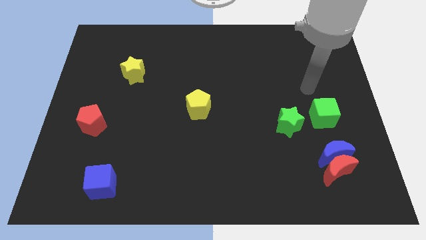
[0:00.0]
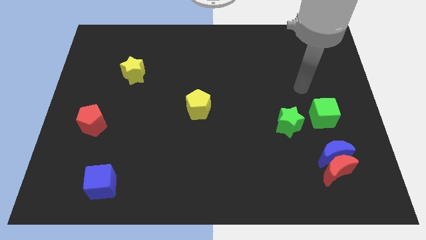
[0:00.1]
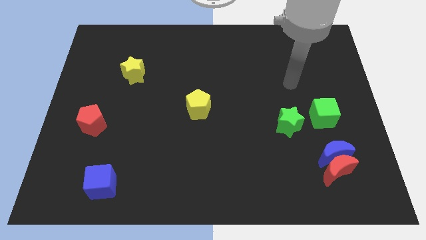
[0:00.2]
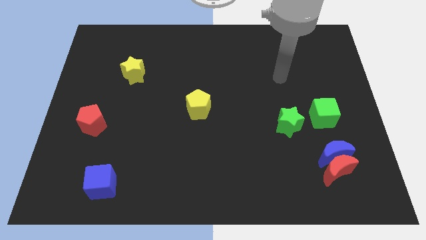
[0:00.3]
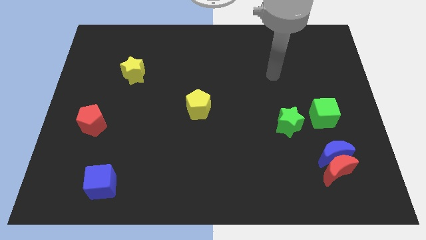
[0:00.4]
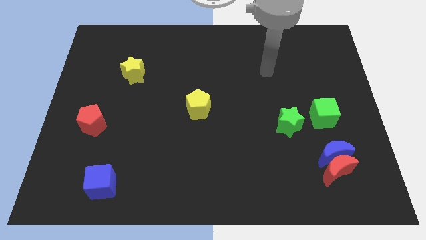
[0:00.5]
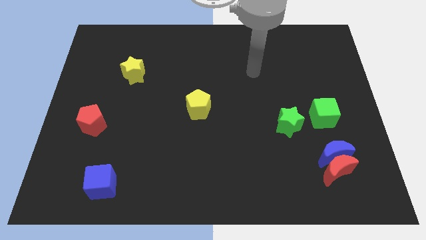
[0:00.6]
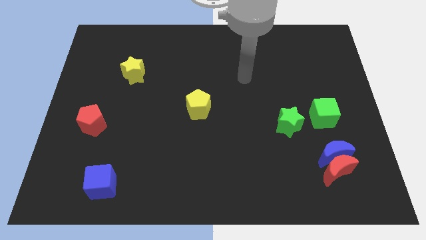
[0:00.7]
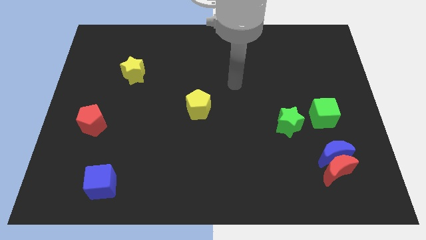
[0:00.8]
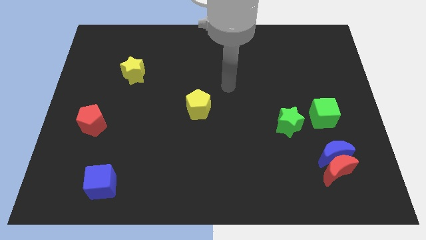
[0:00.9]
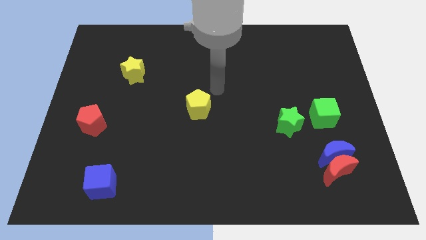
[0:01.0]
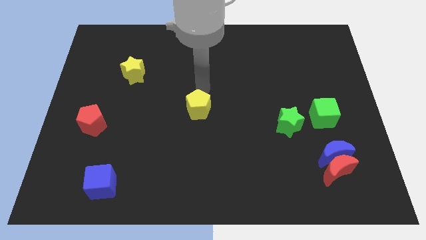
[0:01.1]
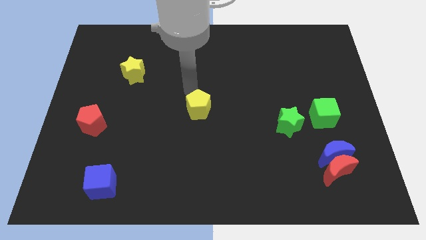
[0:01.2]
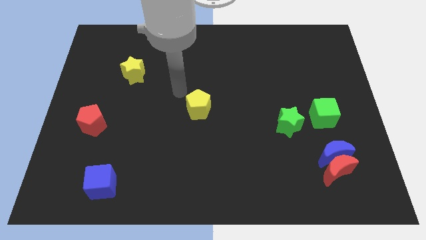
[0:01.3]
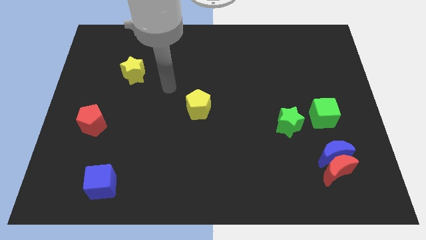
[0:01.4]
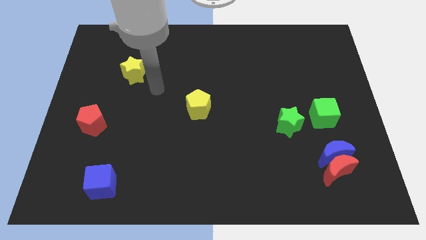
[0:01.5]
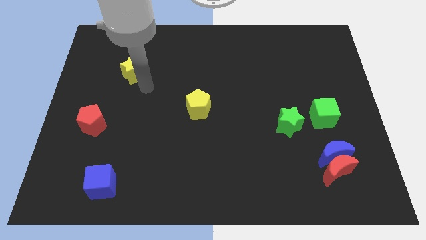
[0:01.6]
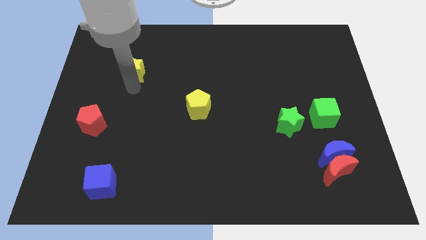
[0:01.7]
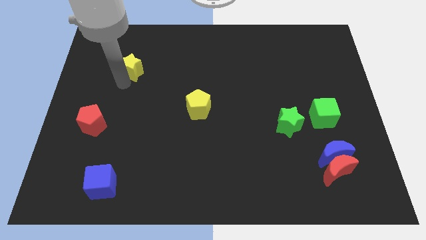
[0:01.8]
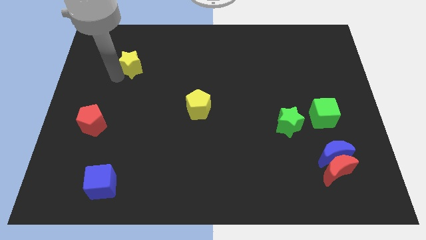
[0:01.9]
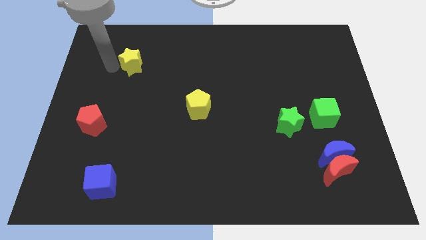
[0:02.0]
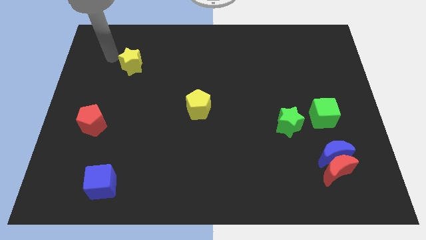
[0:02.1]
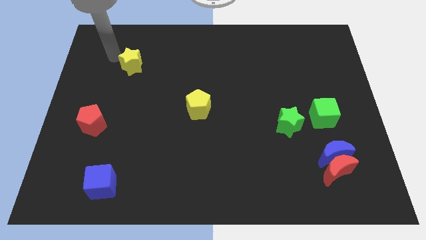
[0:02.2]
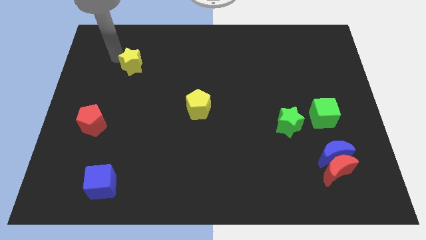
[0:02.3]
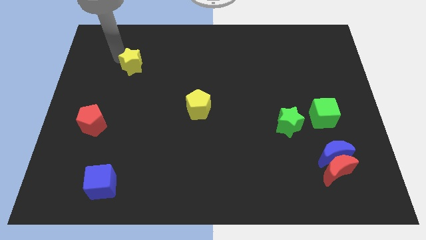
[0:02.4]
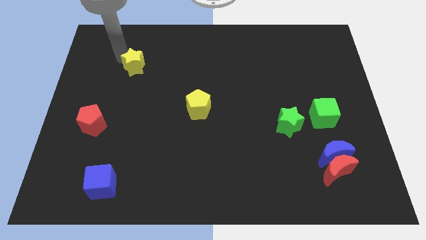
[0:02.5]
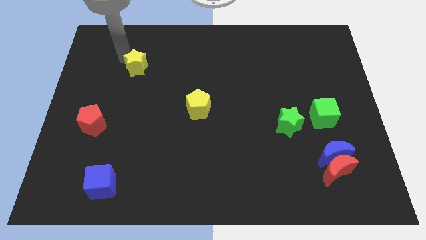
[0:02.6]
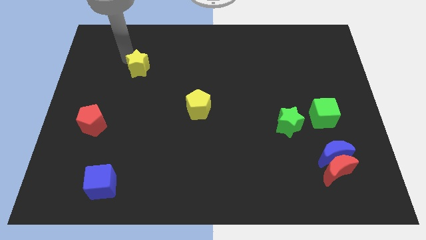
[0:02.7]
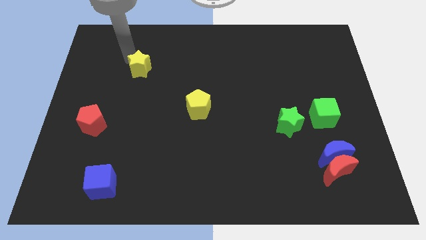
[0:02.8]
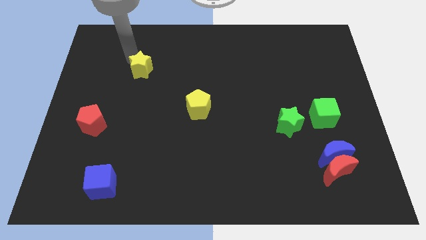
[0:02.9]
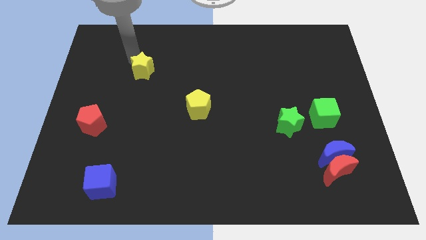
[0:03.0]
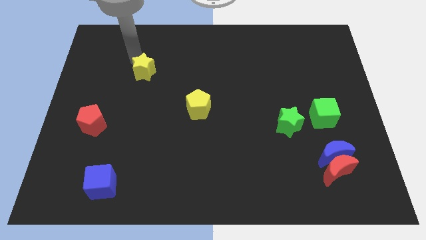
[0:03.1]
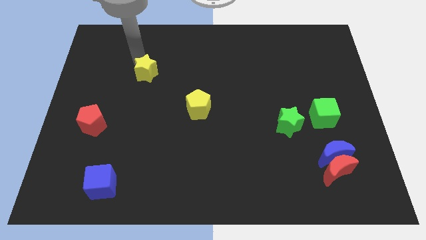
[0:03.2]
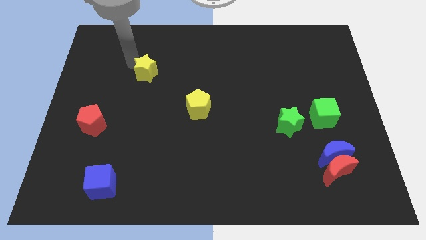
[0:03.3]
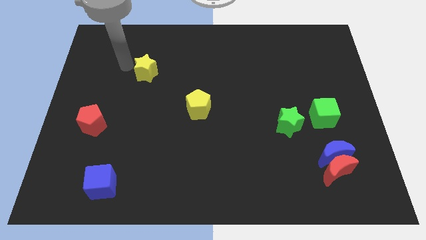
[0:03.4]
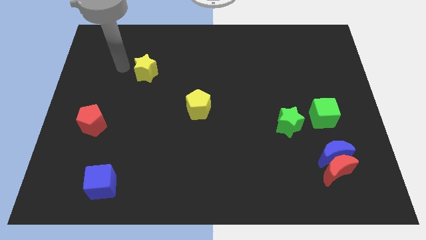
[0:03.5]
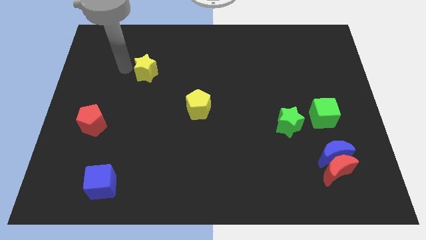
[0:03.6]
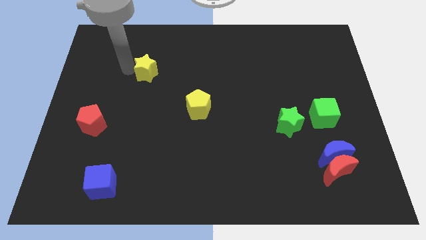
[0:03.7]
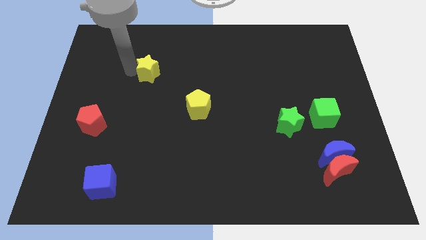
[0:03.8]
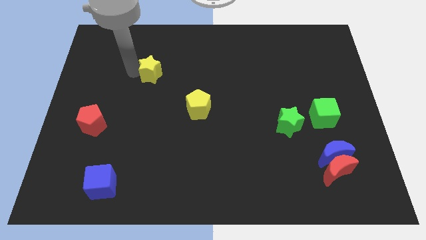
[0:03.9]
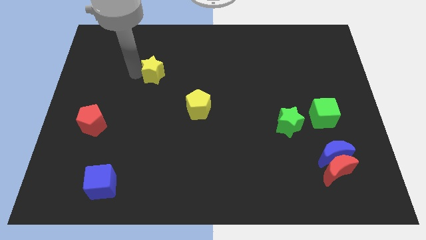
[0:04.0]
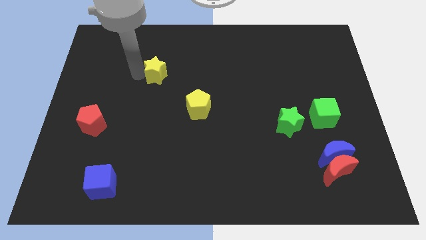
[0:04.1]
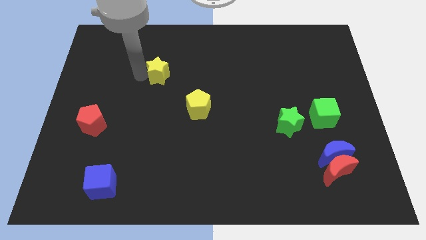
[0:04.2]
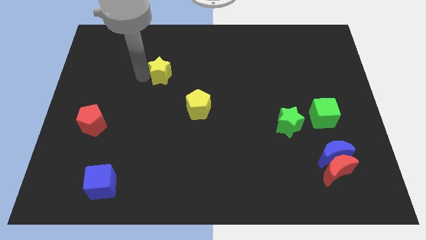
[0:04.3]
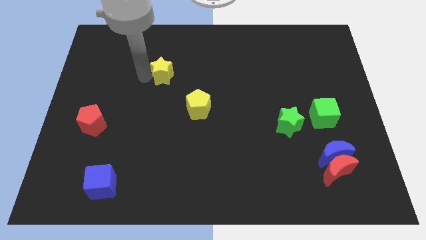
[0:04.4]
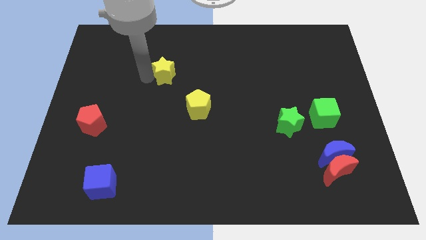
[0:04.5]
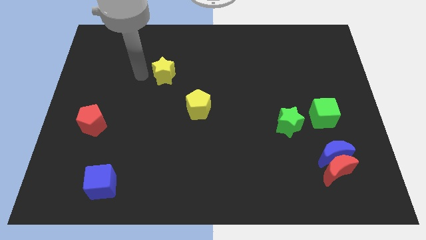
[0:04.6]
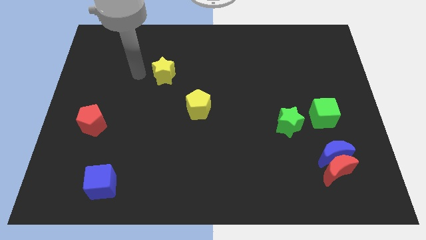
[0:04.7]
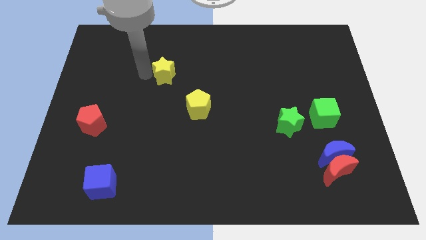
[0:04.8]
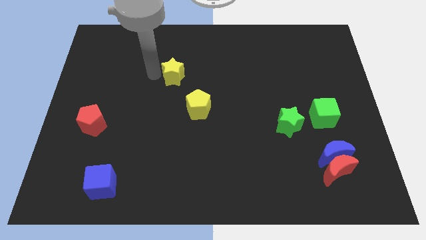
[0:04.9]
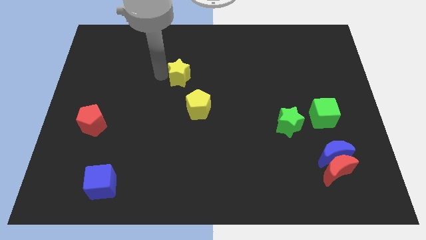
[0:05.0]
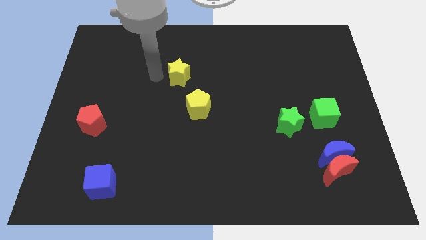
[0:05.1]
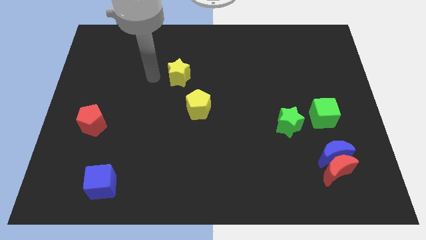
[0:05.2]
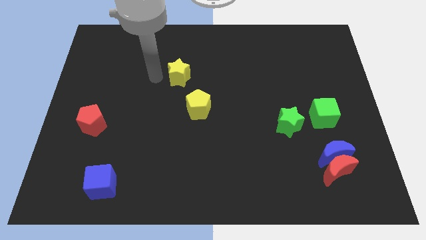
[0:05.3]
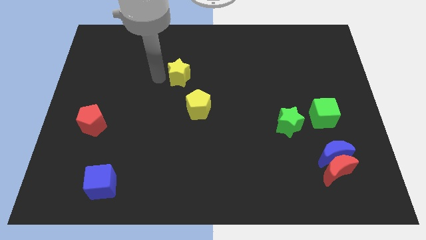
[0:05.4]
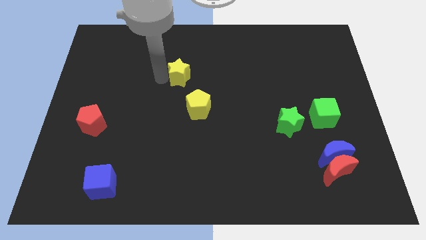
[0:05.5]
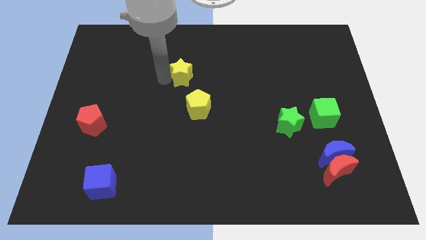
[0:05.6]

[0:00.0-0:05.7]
slide the yellow star to the top side of the yellow pentagon

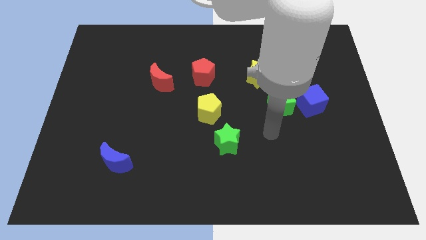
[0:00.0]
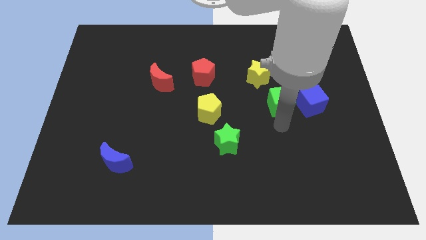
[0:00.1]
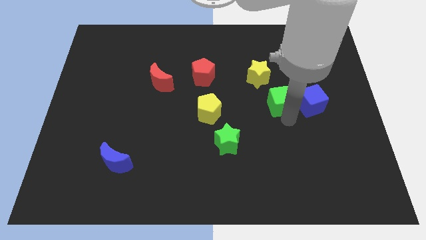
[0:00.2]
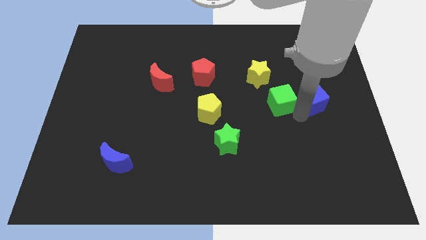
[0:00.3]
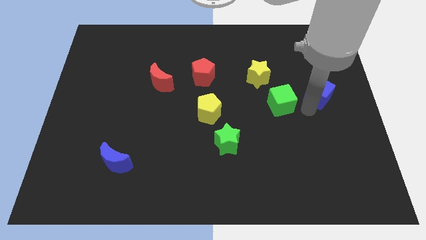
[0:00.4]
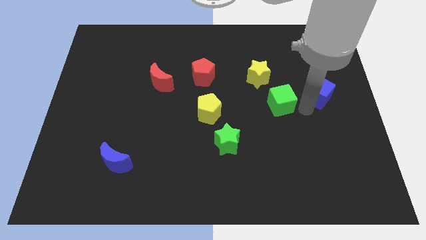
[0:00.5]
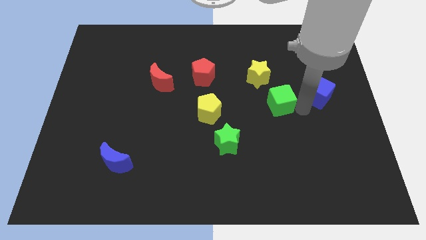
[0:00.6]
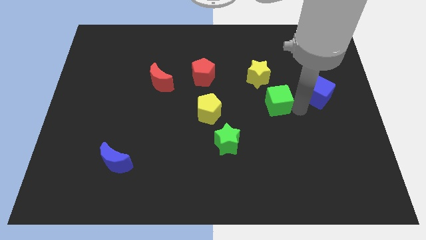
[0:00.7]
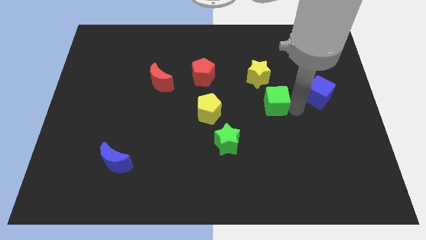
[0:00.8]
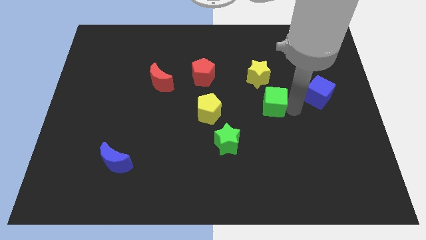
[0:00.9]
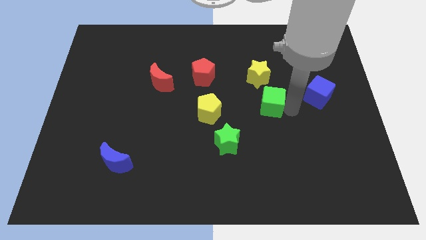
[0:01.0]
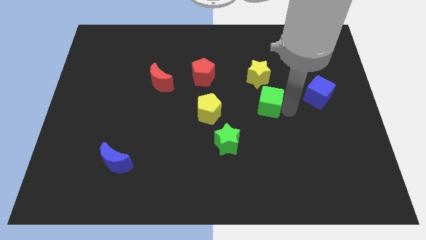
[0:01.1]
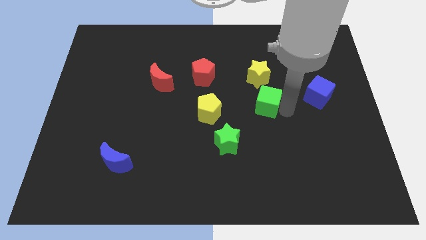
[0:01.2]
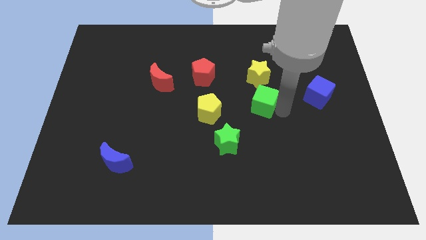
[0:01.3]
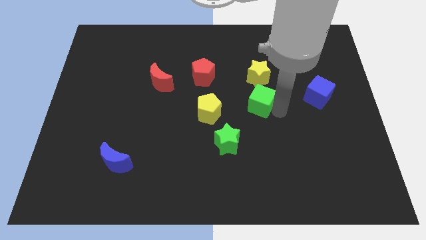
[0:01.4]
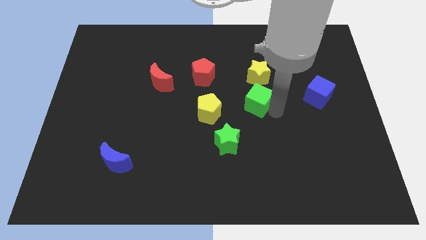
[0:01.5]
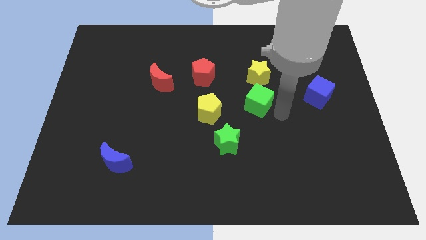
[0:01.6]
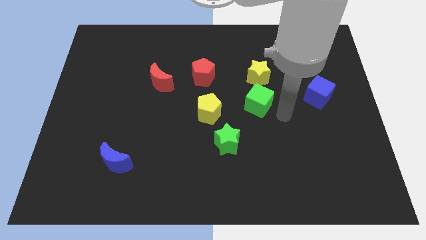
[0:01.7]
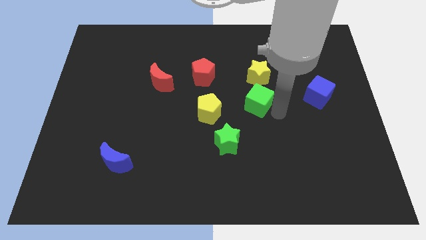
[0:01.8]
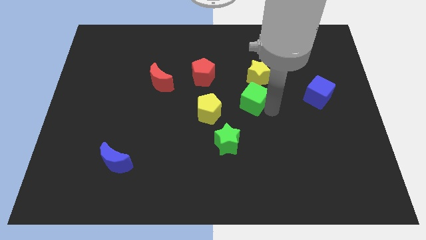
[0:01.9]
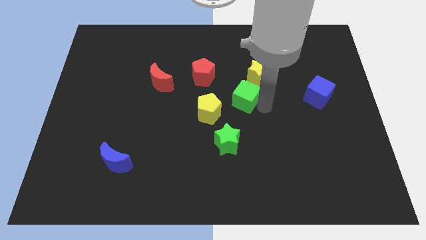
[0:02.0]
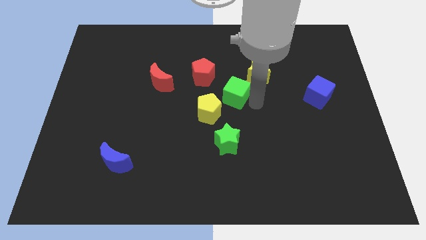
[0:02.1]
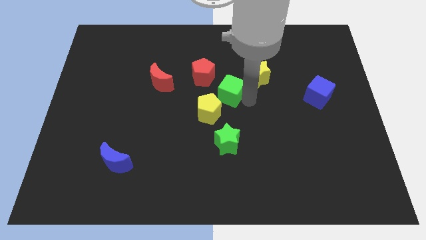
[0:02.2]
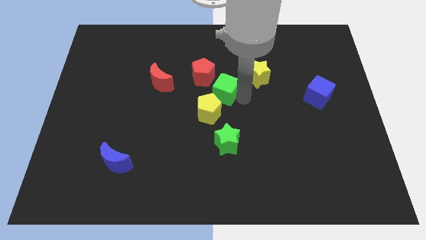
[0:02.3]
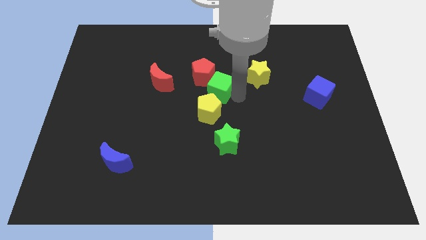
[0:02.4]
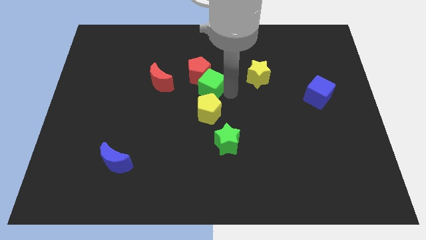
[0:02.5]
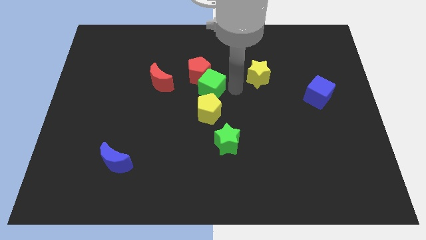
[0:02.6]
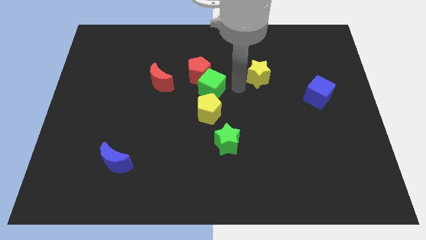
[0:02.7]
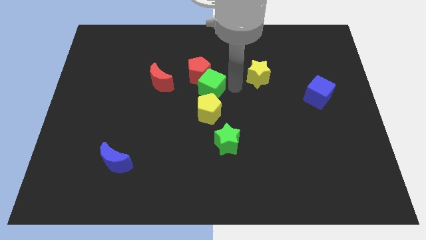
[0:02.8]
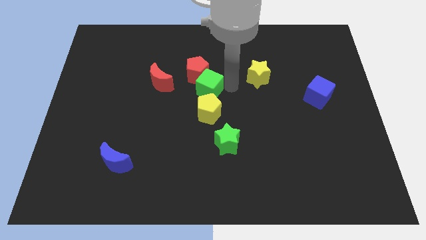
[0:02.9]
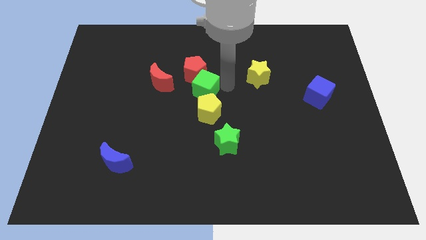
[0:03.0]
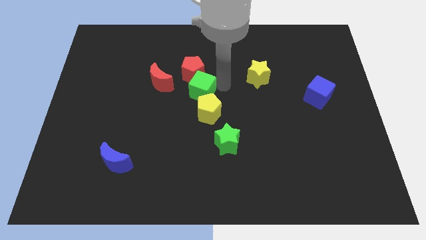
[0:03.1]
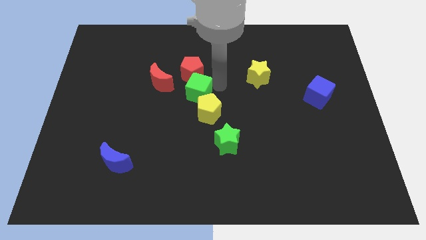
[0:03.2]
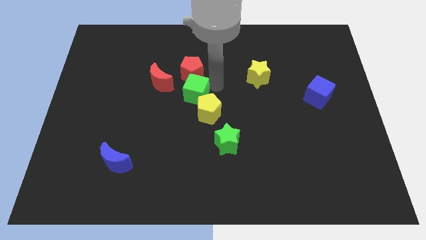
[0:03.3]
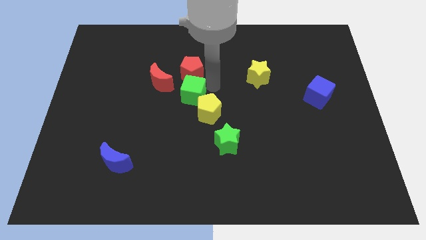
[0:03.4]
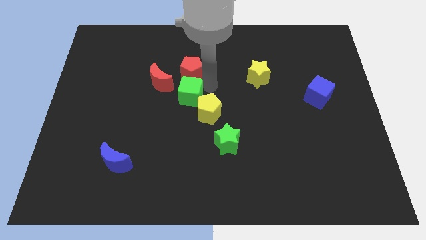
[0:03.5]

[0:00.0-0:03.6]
slide the green cube to the bottom left side of the red pentagon
